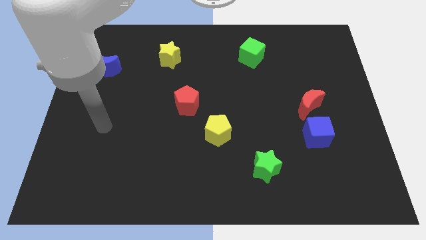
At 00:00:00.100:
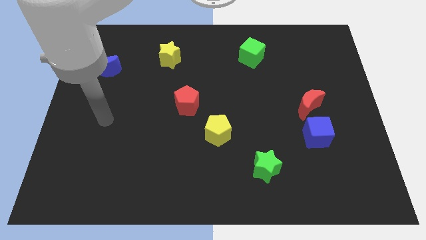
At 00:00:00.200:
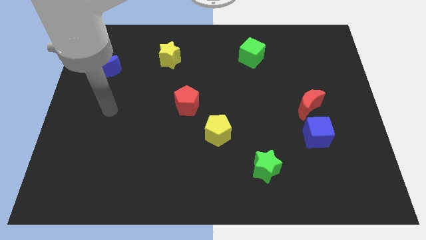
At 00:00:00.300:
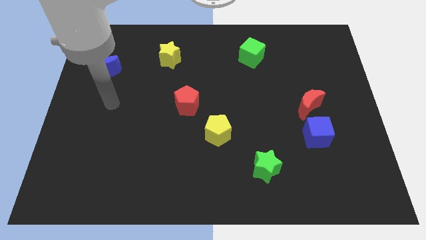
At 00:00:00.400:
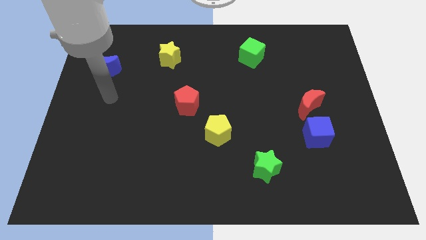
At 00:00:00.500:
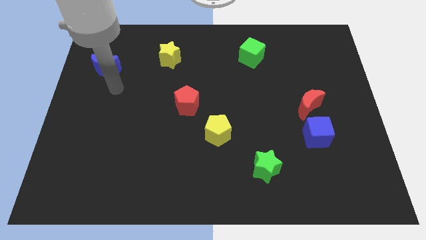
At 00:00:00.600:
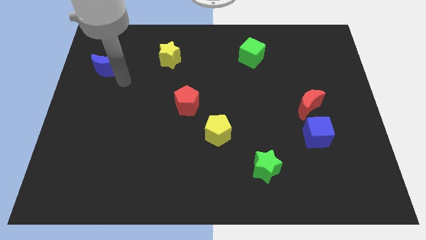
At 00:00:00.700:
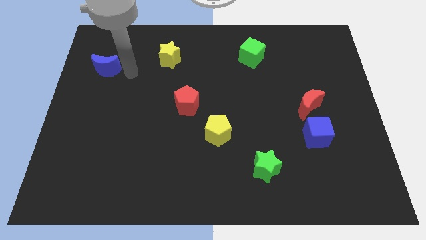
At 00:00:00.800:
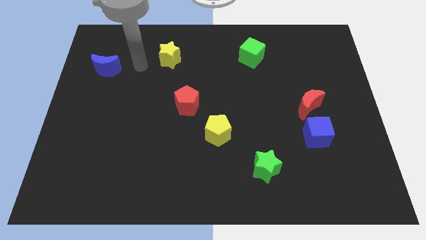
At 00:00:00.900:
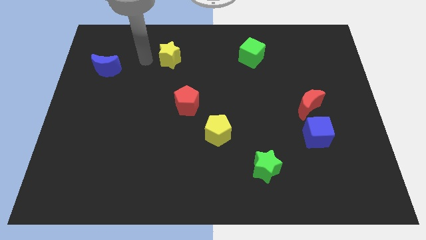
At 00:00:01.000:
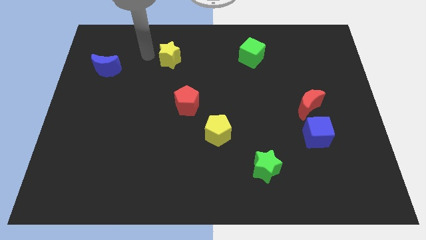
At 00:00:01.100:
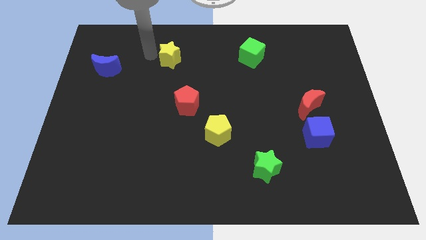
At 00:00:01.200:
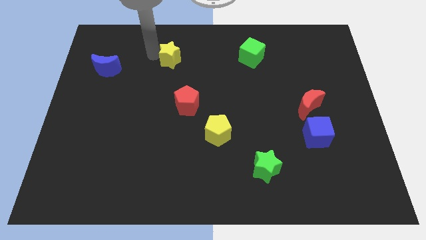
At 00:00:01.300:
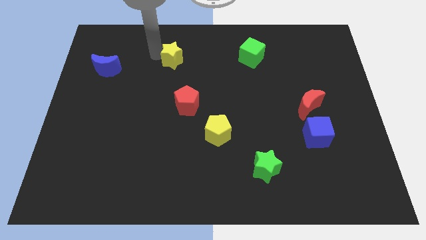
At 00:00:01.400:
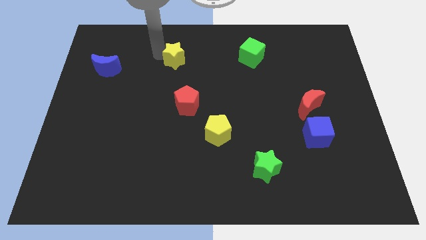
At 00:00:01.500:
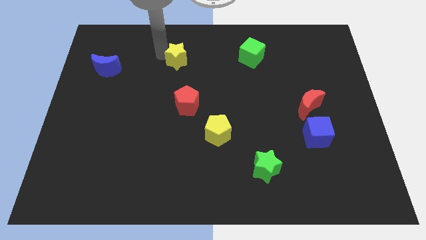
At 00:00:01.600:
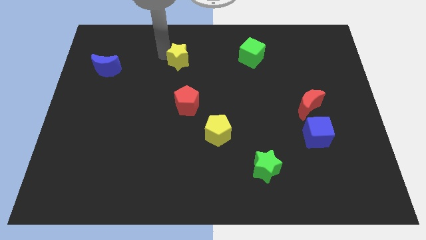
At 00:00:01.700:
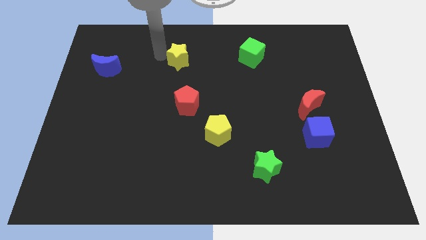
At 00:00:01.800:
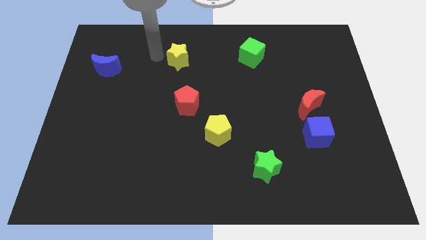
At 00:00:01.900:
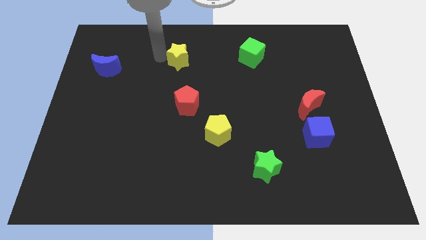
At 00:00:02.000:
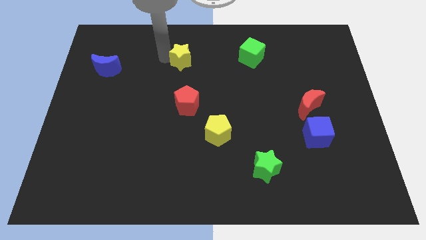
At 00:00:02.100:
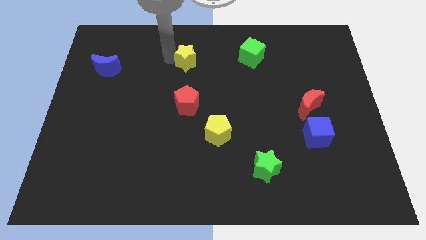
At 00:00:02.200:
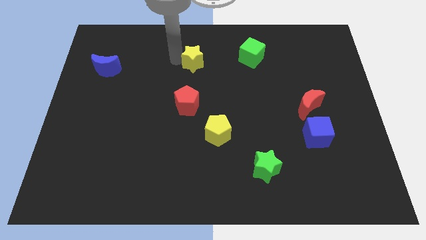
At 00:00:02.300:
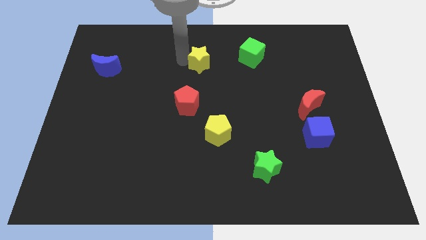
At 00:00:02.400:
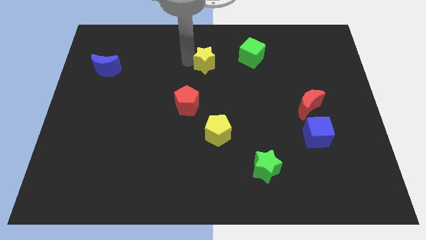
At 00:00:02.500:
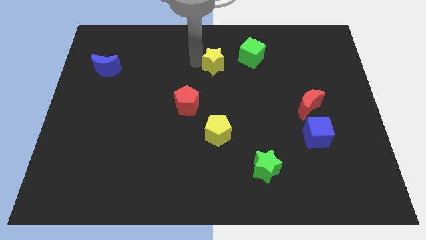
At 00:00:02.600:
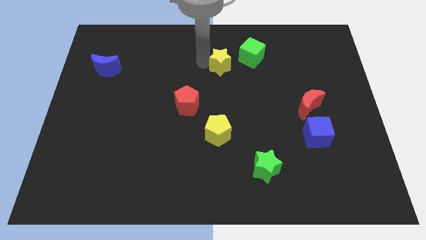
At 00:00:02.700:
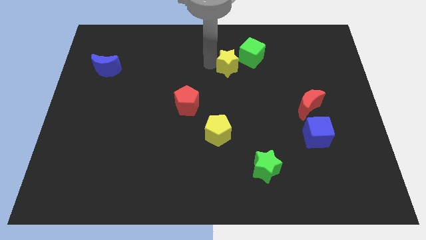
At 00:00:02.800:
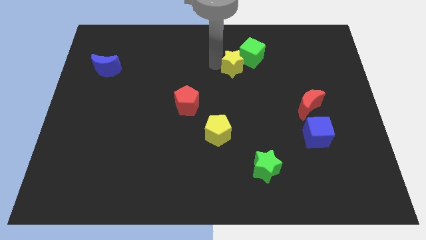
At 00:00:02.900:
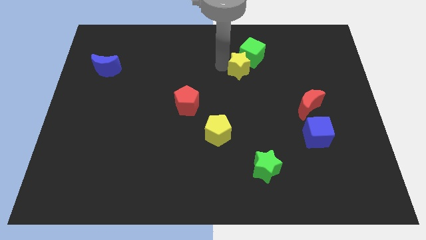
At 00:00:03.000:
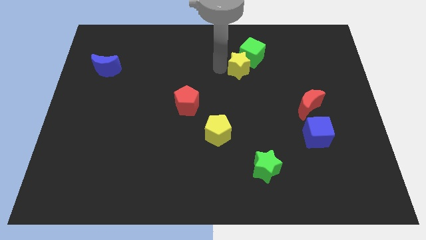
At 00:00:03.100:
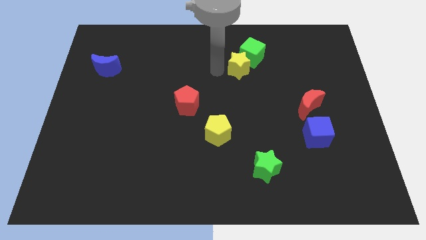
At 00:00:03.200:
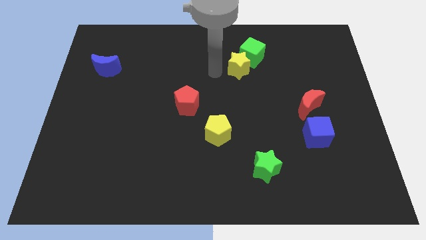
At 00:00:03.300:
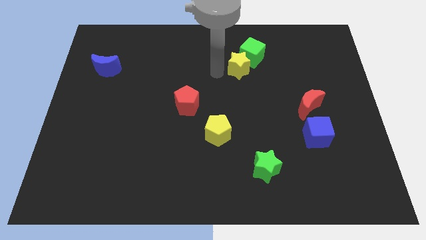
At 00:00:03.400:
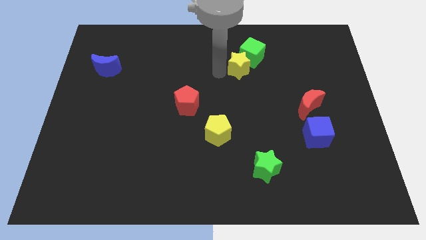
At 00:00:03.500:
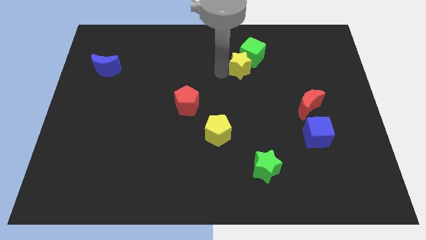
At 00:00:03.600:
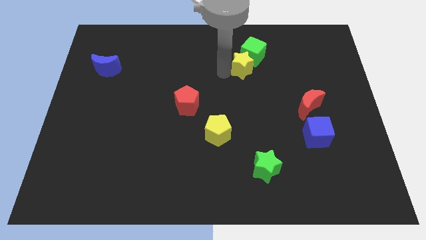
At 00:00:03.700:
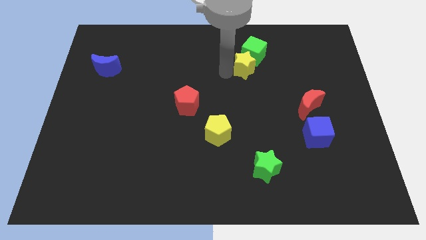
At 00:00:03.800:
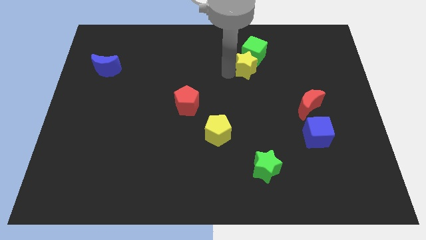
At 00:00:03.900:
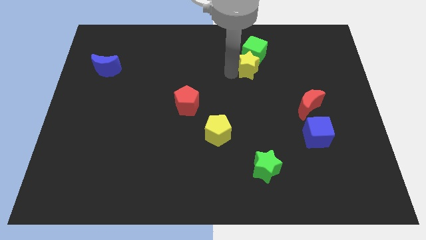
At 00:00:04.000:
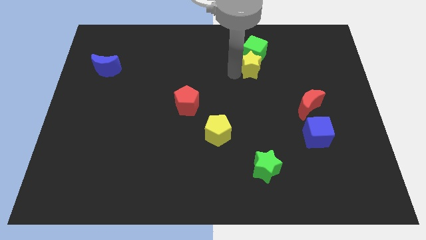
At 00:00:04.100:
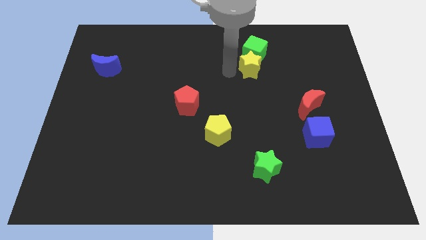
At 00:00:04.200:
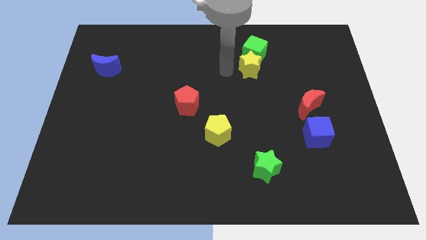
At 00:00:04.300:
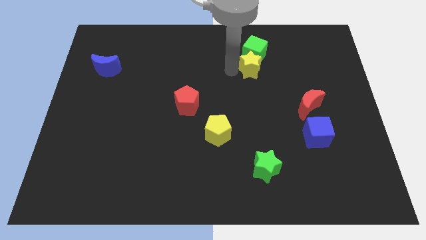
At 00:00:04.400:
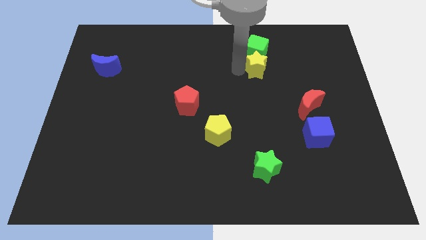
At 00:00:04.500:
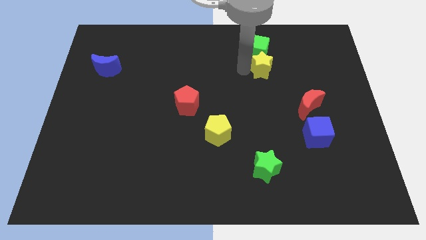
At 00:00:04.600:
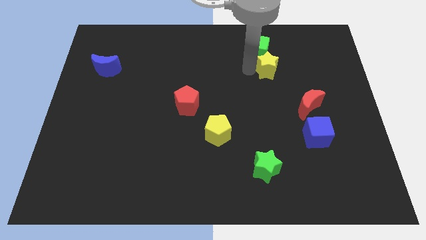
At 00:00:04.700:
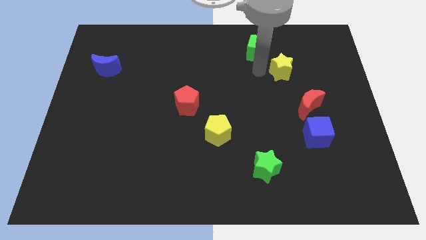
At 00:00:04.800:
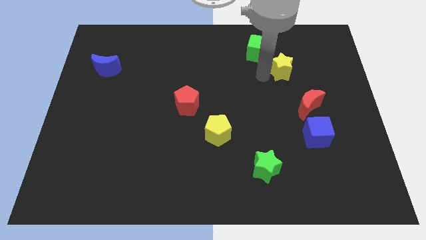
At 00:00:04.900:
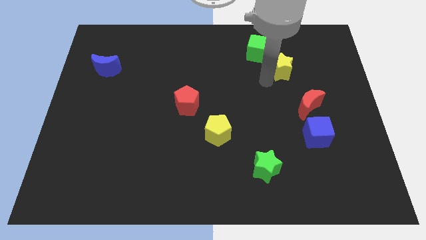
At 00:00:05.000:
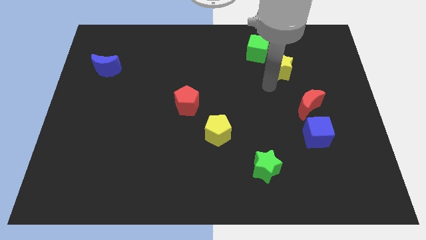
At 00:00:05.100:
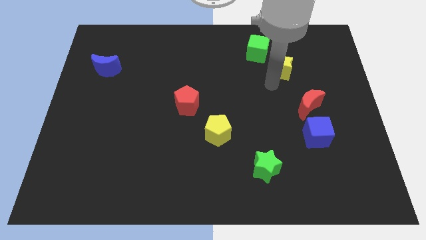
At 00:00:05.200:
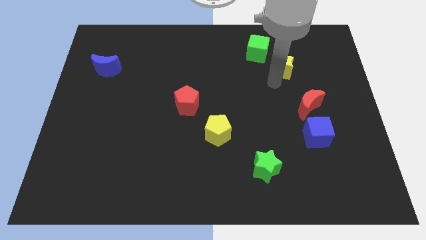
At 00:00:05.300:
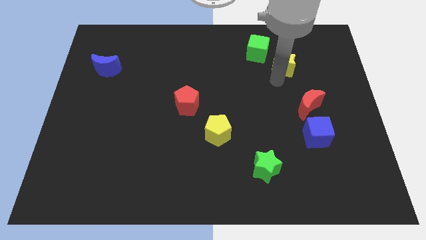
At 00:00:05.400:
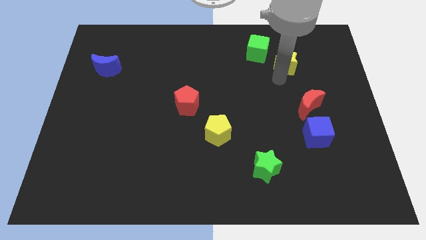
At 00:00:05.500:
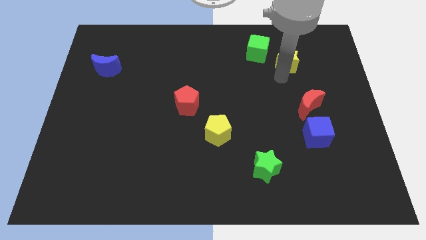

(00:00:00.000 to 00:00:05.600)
move the yellow star to the right of the green cube

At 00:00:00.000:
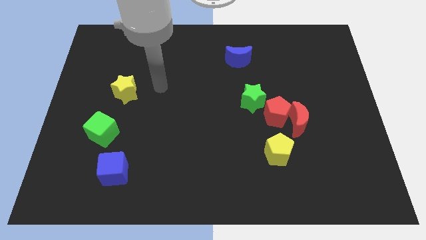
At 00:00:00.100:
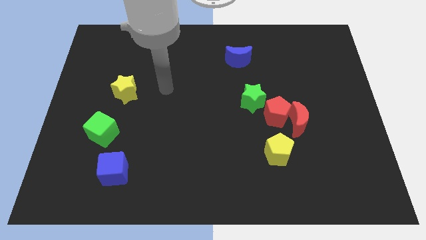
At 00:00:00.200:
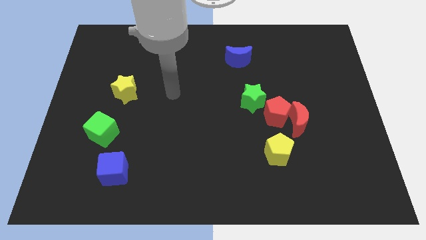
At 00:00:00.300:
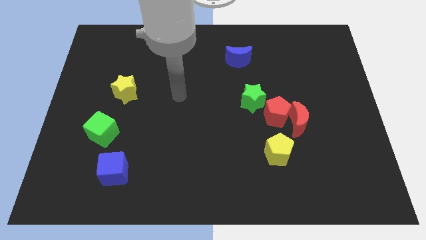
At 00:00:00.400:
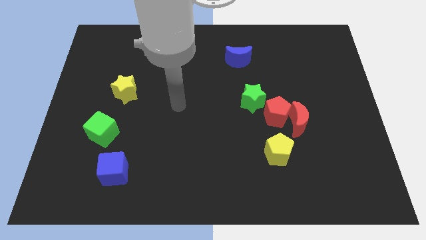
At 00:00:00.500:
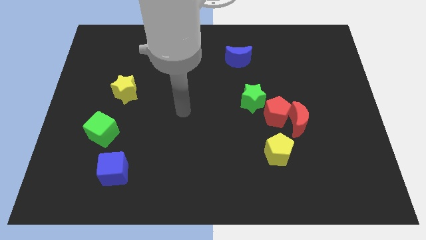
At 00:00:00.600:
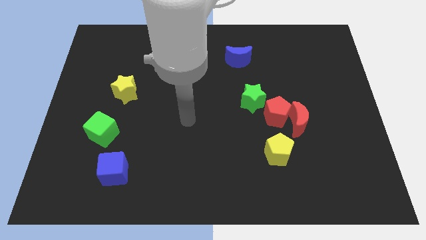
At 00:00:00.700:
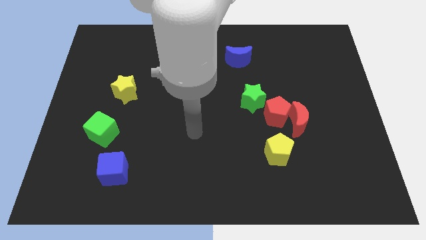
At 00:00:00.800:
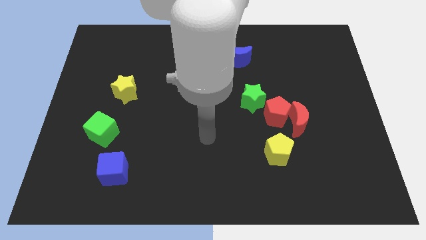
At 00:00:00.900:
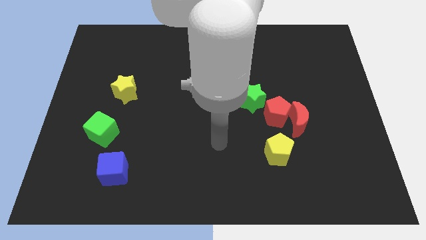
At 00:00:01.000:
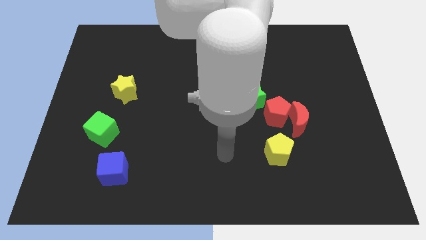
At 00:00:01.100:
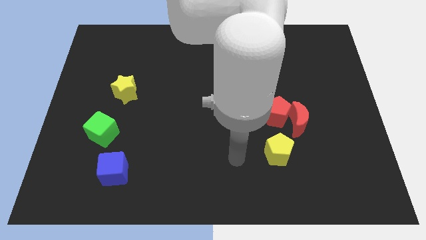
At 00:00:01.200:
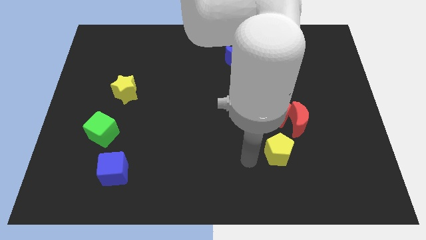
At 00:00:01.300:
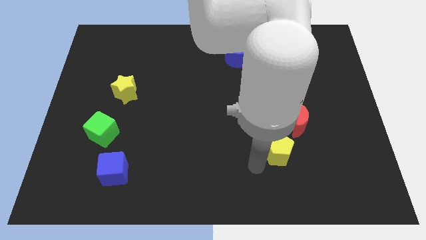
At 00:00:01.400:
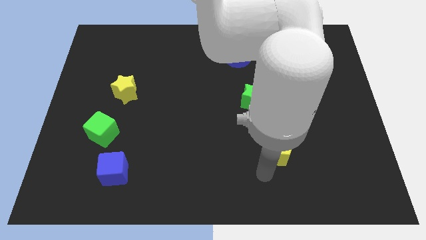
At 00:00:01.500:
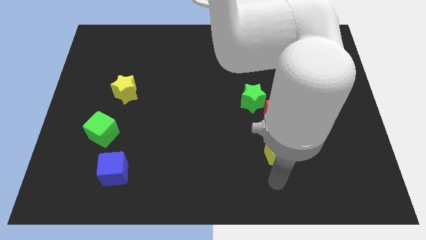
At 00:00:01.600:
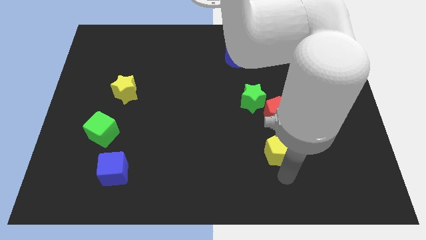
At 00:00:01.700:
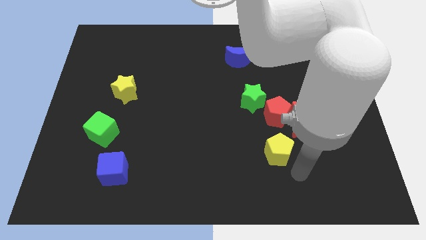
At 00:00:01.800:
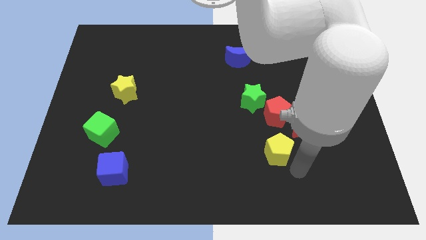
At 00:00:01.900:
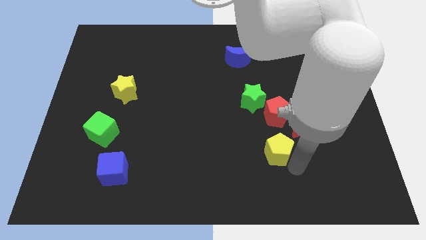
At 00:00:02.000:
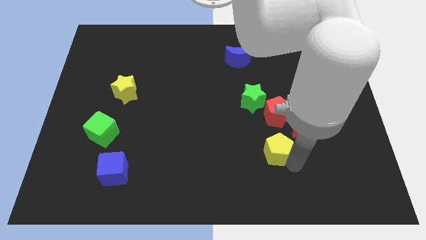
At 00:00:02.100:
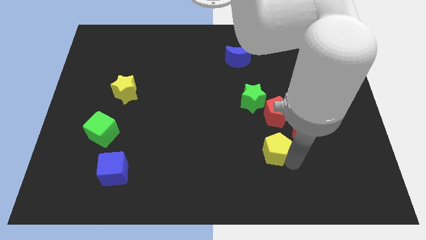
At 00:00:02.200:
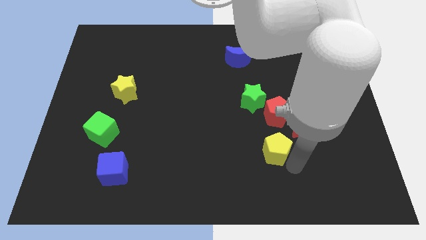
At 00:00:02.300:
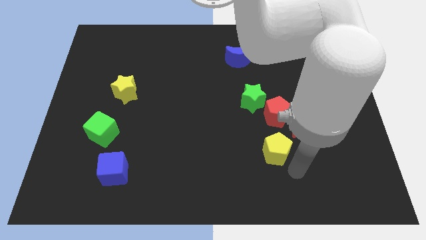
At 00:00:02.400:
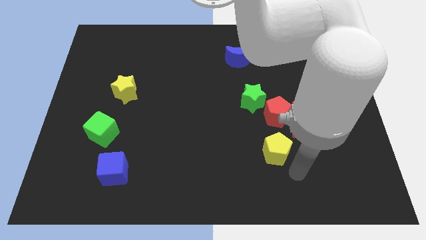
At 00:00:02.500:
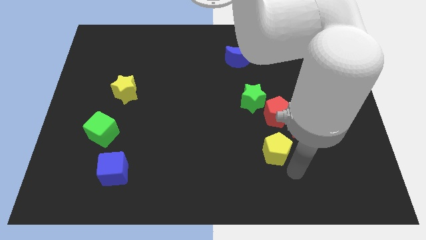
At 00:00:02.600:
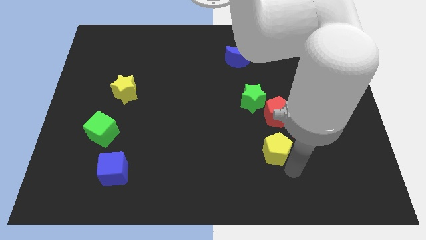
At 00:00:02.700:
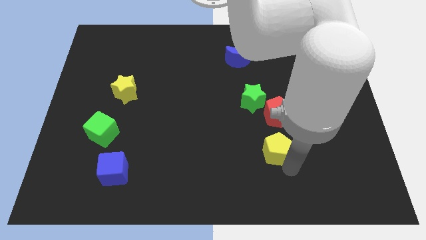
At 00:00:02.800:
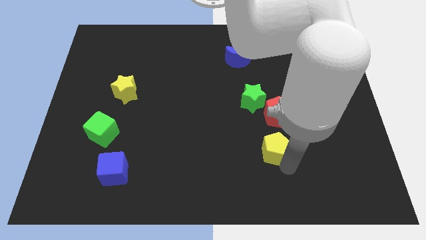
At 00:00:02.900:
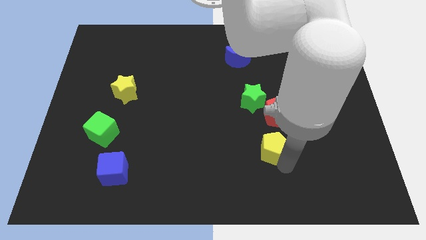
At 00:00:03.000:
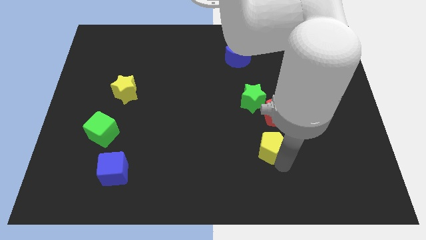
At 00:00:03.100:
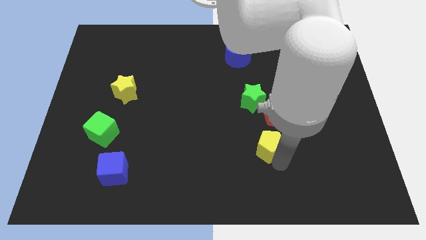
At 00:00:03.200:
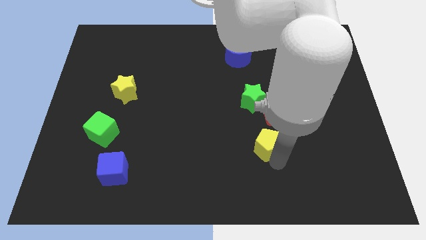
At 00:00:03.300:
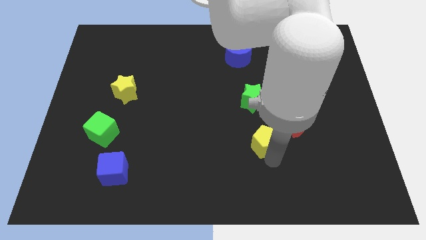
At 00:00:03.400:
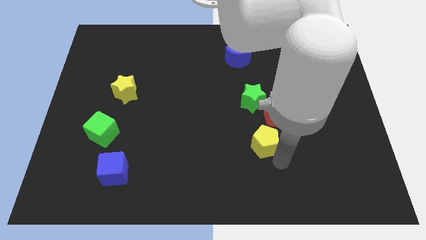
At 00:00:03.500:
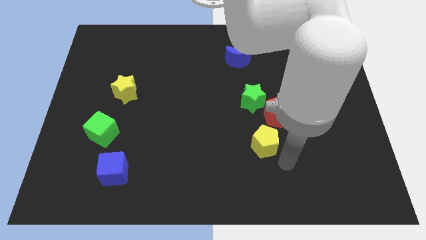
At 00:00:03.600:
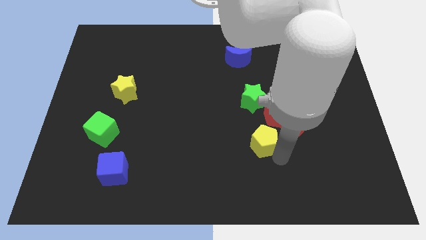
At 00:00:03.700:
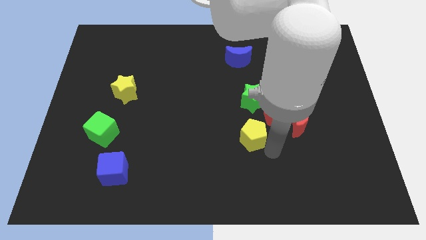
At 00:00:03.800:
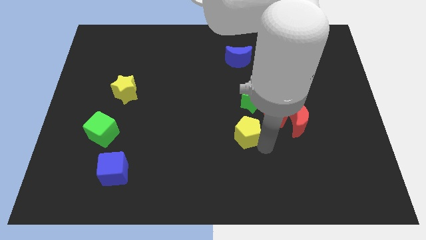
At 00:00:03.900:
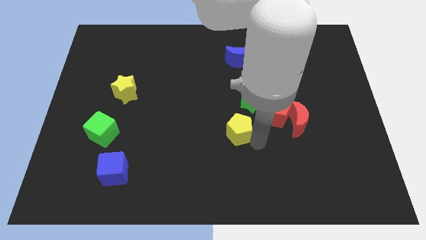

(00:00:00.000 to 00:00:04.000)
move the yellow pentagon to the bottom left of the green star
